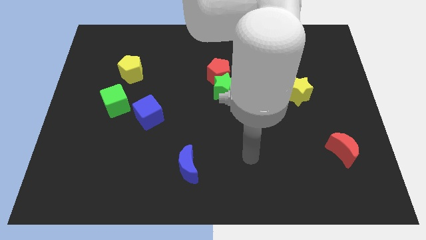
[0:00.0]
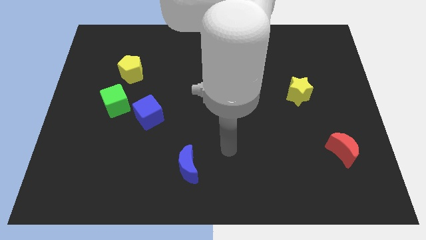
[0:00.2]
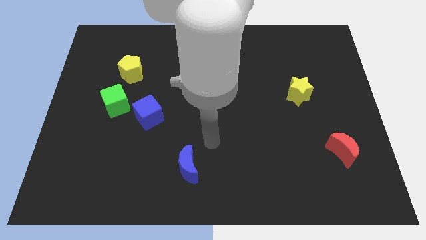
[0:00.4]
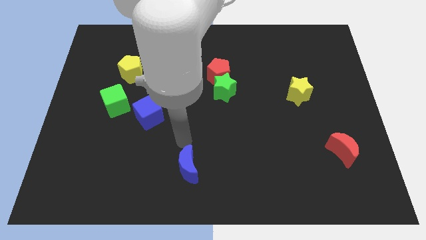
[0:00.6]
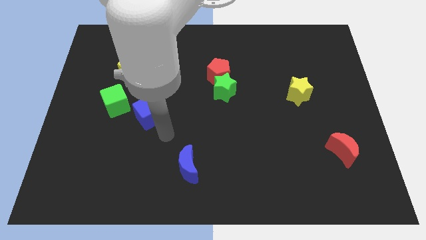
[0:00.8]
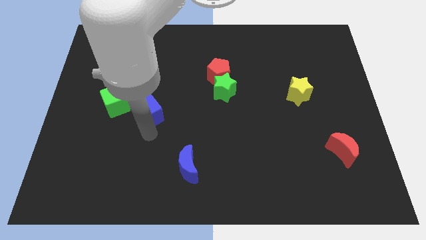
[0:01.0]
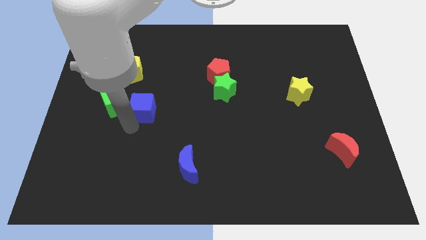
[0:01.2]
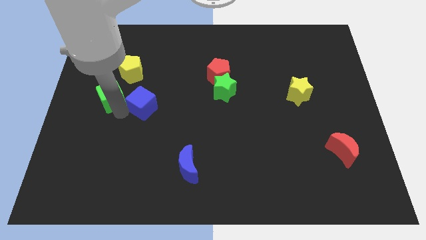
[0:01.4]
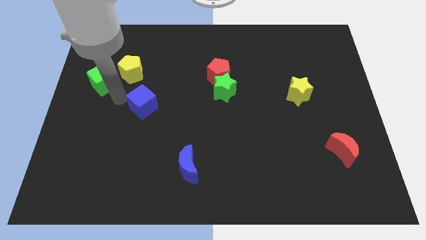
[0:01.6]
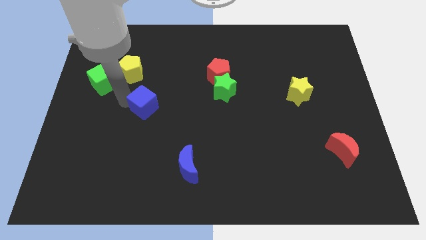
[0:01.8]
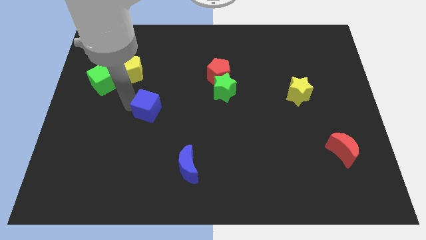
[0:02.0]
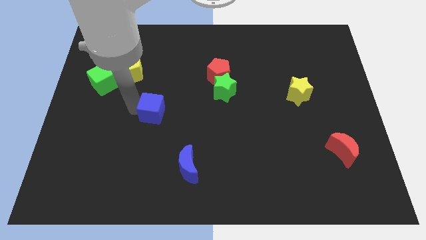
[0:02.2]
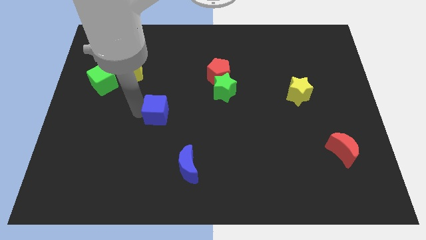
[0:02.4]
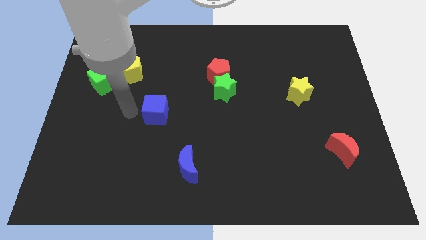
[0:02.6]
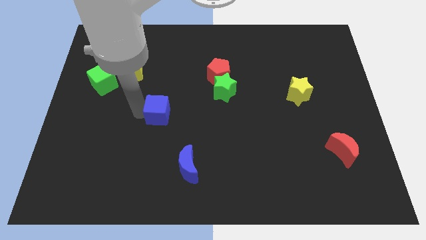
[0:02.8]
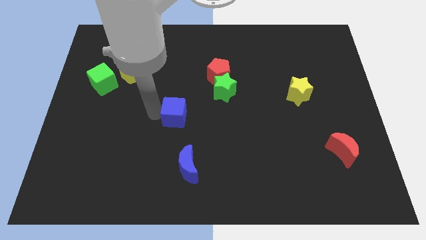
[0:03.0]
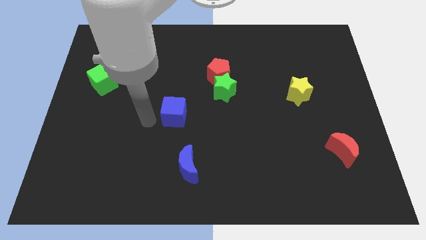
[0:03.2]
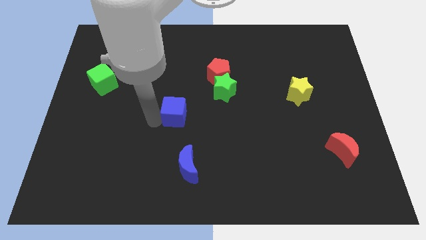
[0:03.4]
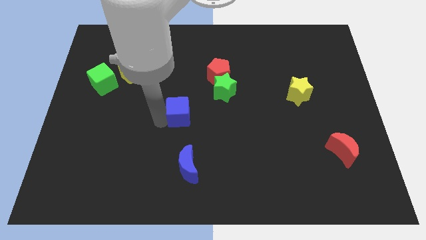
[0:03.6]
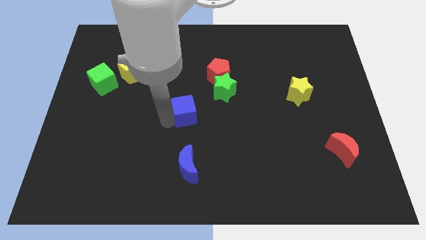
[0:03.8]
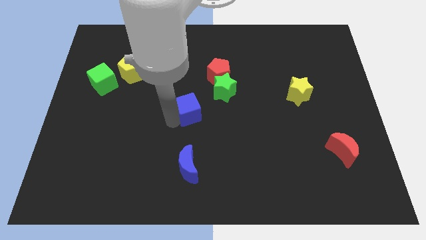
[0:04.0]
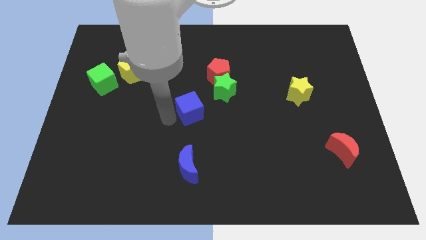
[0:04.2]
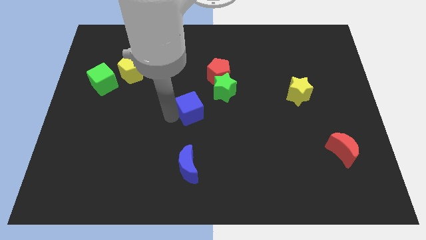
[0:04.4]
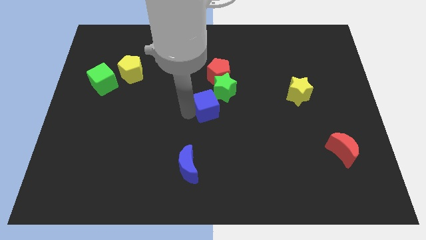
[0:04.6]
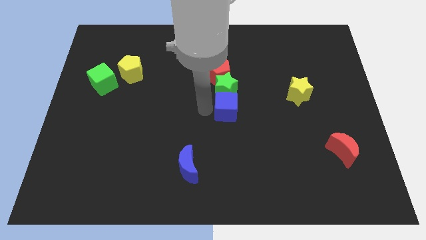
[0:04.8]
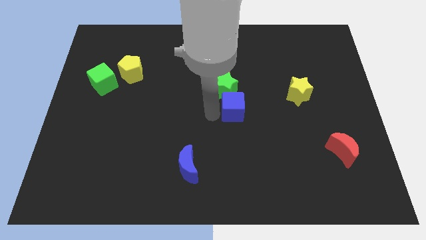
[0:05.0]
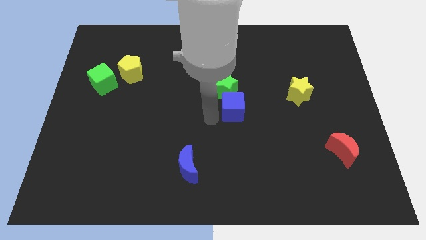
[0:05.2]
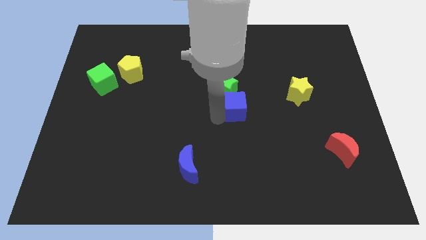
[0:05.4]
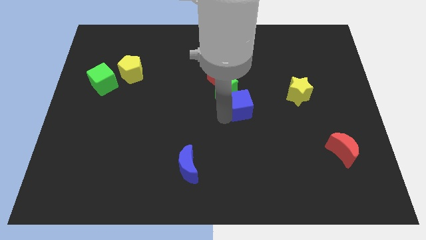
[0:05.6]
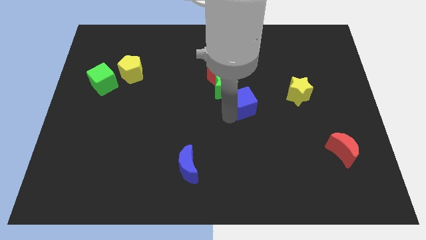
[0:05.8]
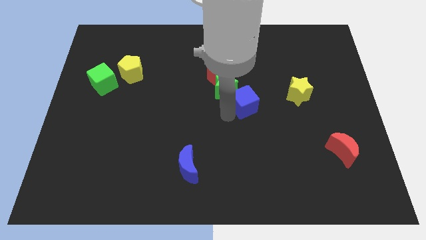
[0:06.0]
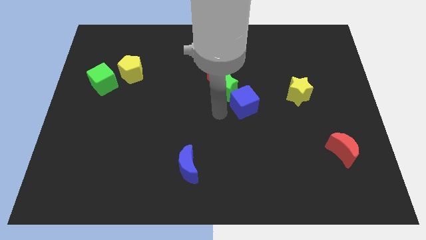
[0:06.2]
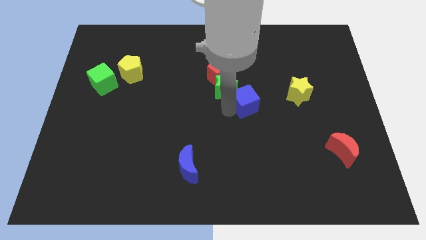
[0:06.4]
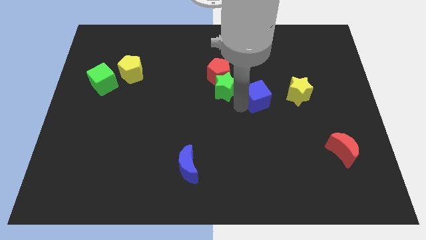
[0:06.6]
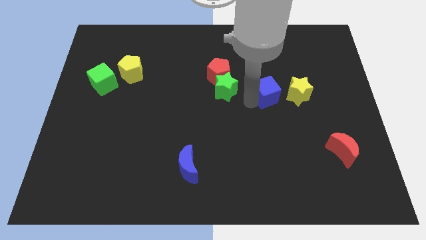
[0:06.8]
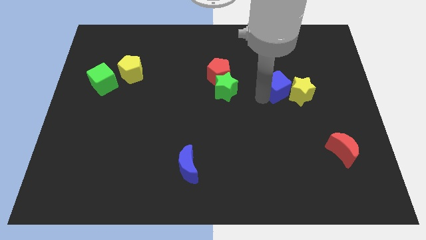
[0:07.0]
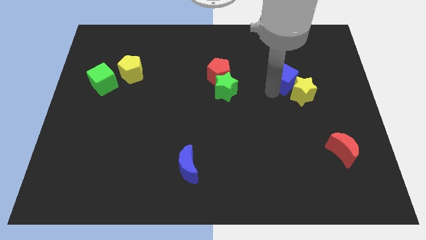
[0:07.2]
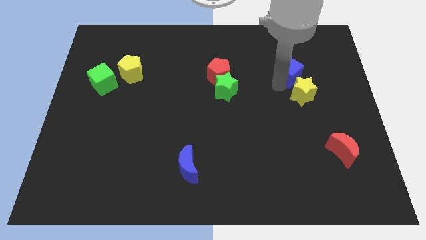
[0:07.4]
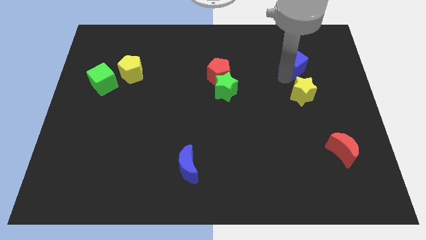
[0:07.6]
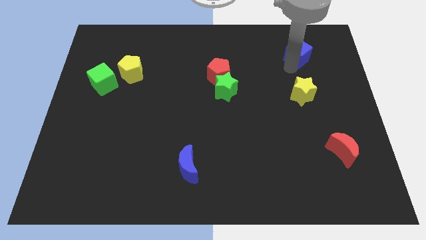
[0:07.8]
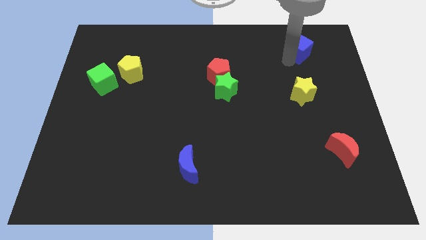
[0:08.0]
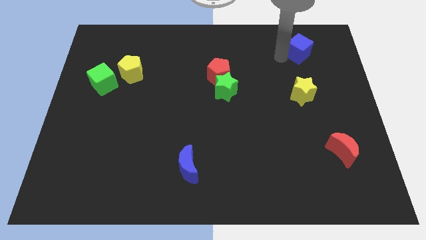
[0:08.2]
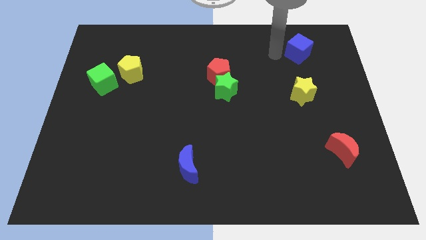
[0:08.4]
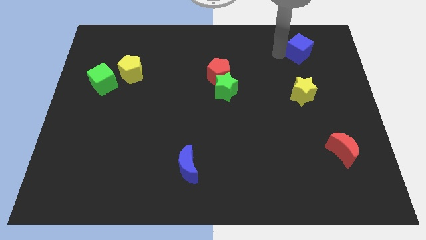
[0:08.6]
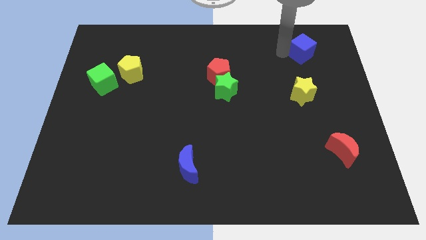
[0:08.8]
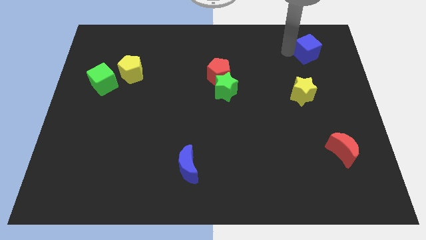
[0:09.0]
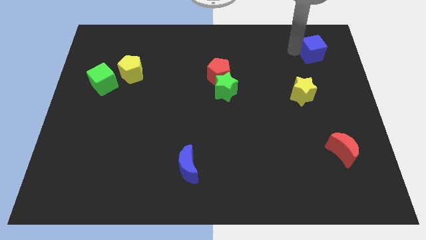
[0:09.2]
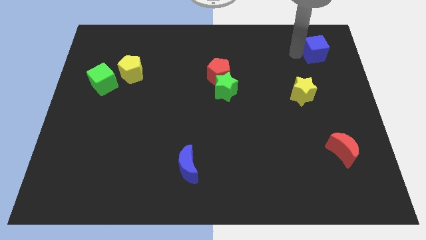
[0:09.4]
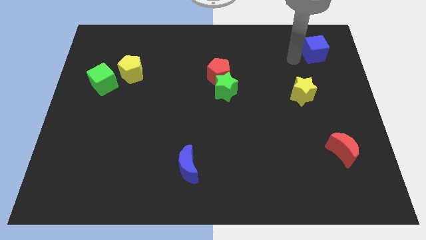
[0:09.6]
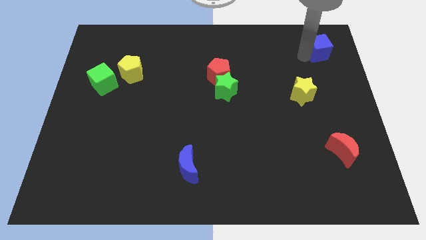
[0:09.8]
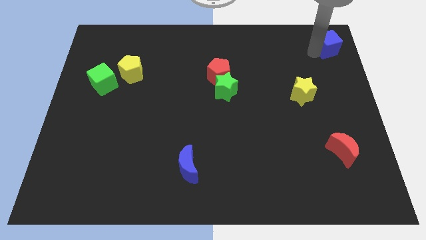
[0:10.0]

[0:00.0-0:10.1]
put the blue cube to the upper right corner

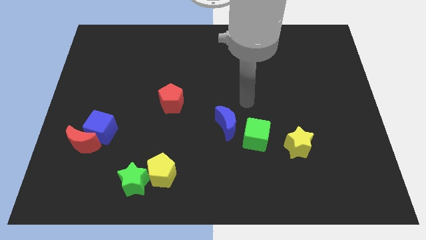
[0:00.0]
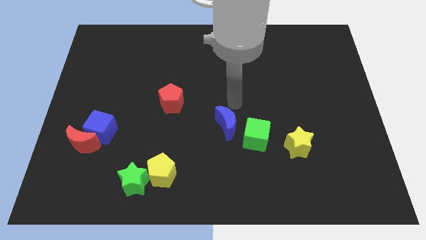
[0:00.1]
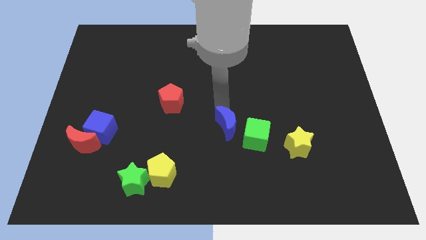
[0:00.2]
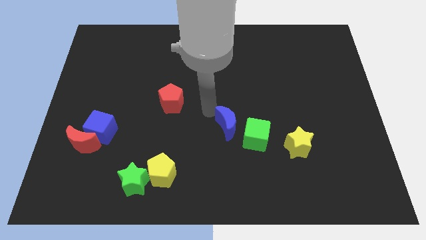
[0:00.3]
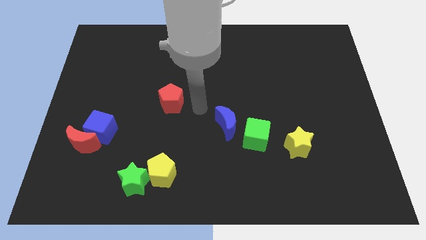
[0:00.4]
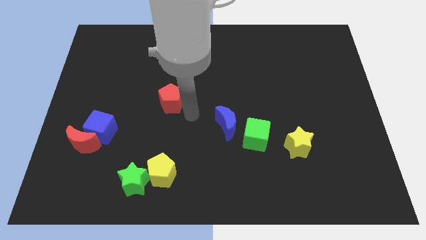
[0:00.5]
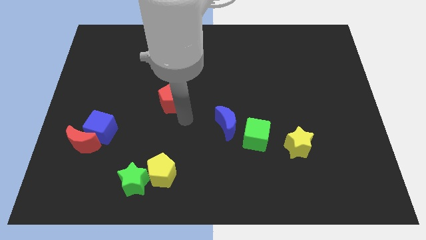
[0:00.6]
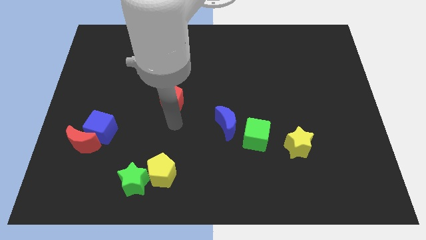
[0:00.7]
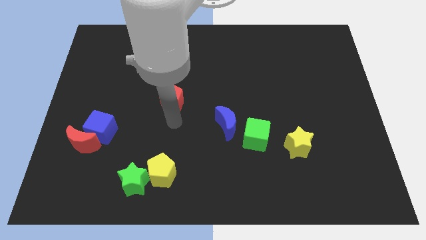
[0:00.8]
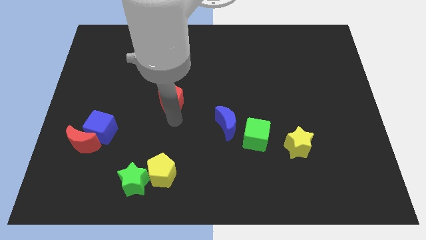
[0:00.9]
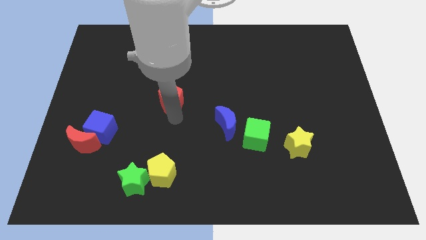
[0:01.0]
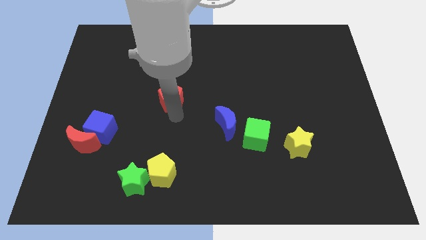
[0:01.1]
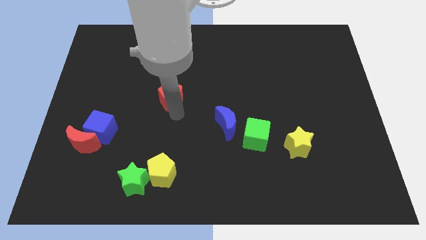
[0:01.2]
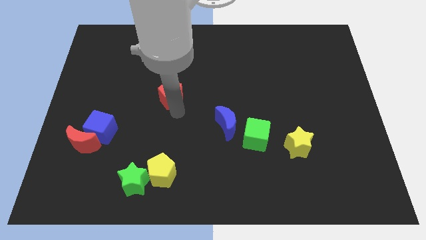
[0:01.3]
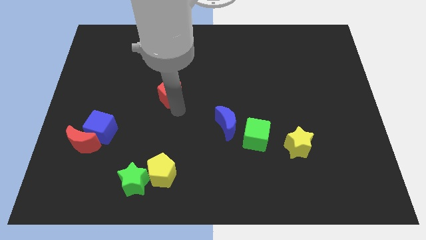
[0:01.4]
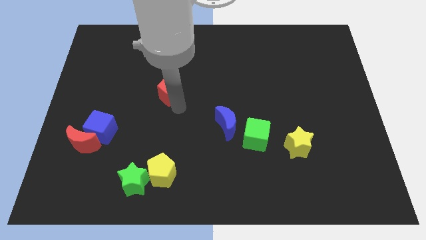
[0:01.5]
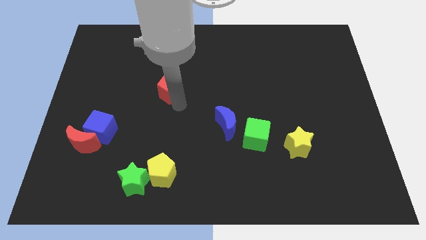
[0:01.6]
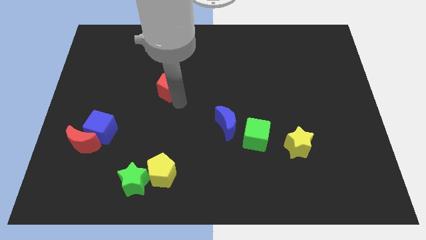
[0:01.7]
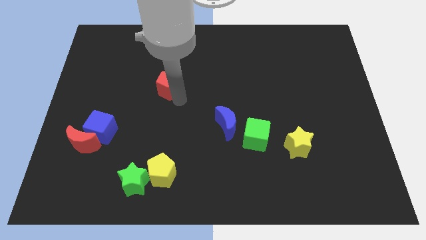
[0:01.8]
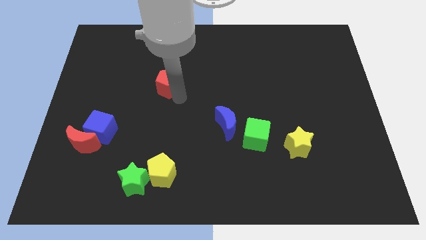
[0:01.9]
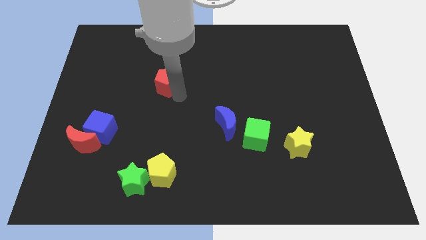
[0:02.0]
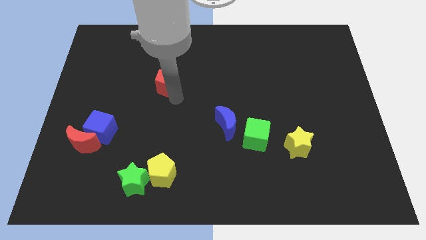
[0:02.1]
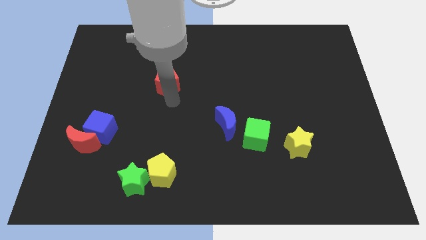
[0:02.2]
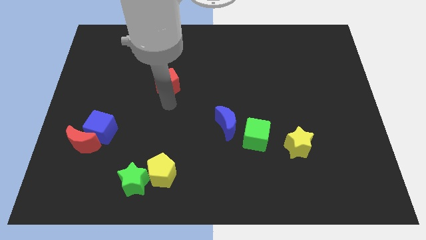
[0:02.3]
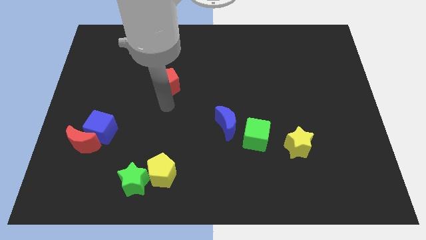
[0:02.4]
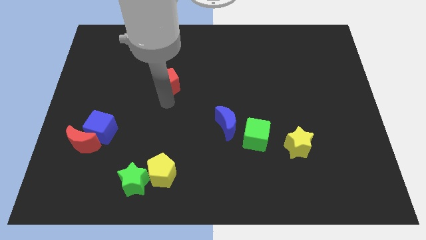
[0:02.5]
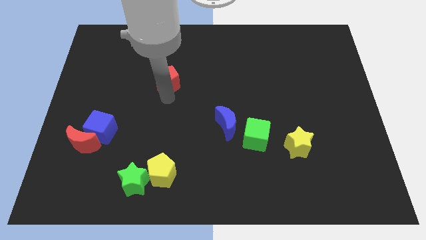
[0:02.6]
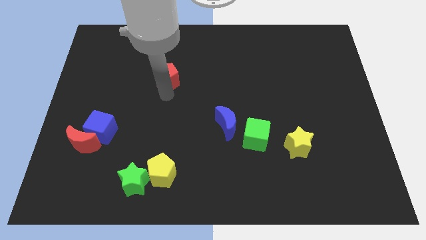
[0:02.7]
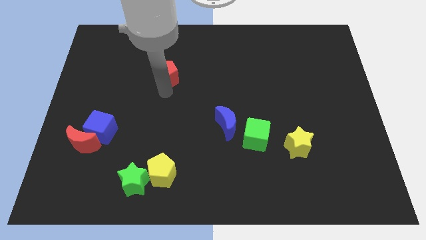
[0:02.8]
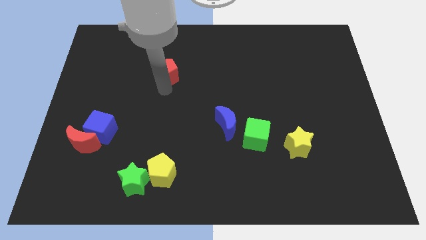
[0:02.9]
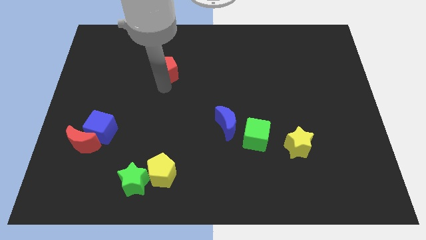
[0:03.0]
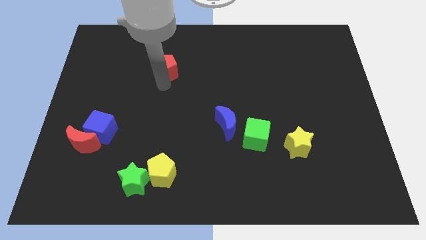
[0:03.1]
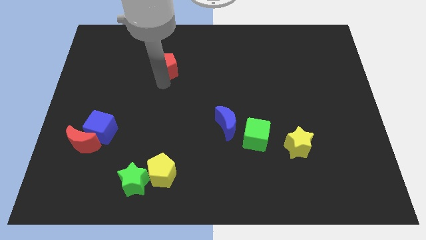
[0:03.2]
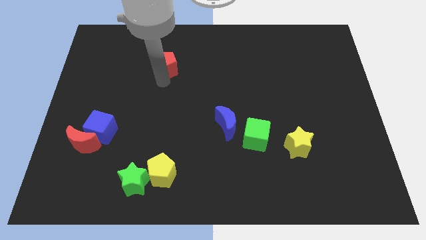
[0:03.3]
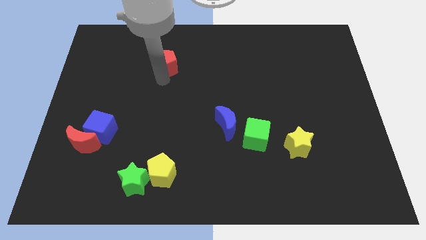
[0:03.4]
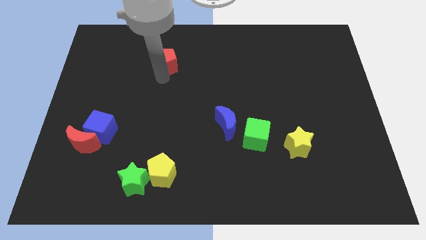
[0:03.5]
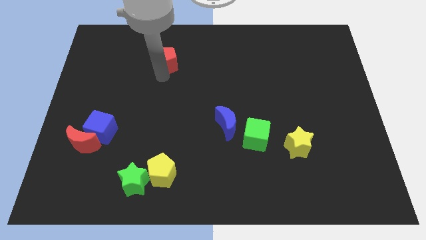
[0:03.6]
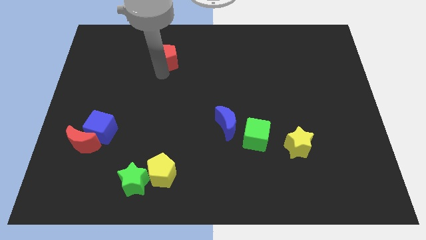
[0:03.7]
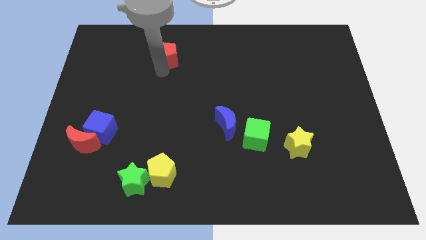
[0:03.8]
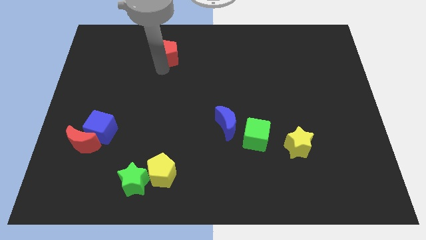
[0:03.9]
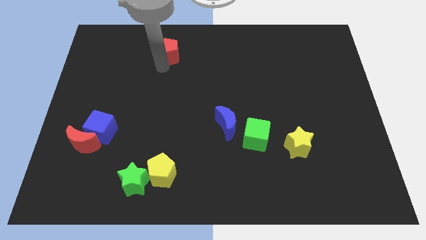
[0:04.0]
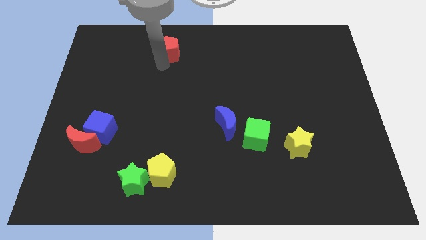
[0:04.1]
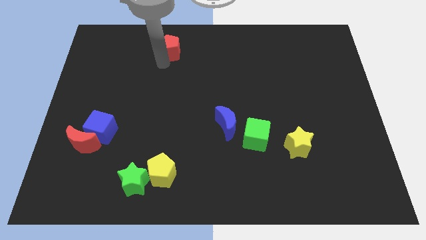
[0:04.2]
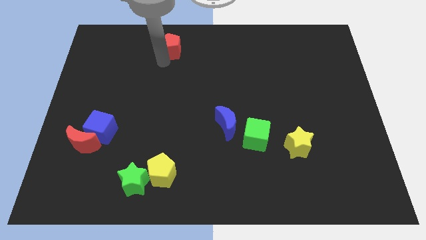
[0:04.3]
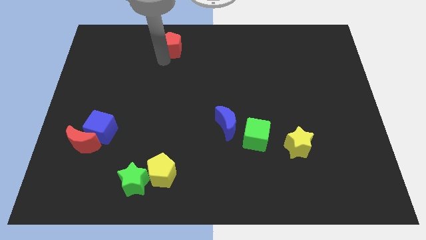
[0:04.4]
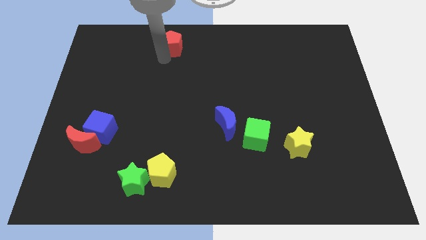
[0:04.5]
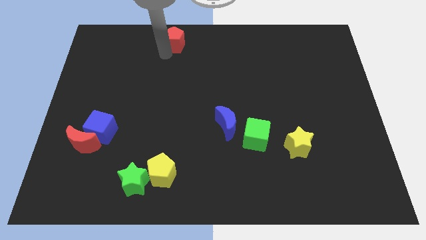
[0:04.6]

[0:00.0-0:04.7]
move the red pentagon to the towards your base
